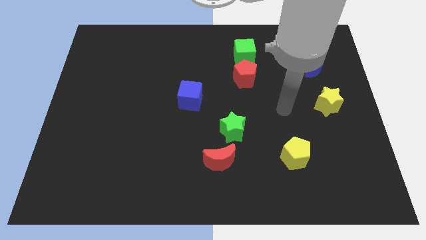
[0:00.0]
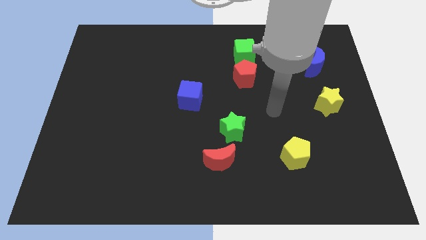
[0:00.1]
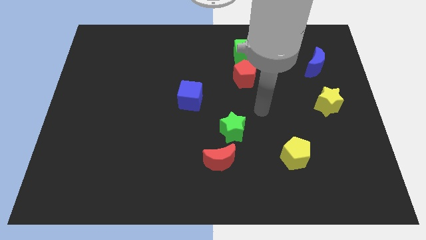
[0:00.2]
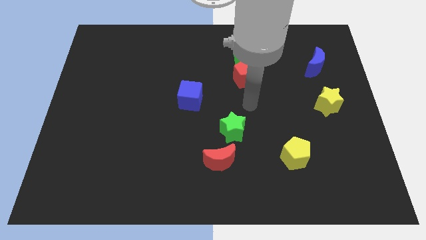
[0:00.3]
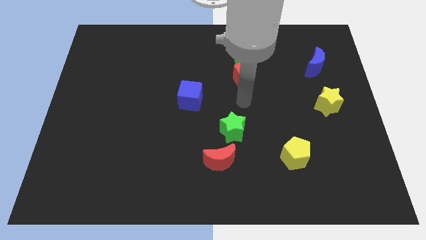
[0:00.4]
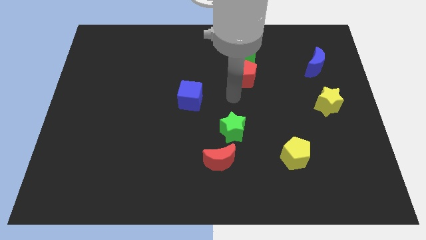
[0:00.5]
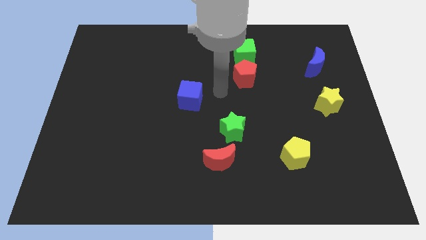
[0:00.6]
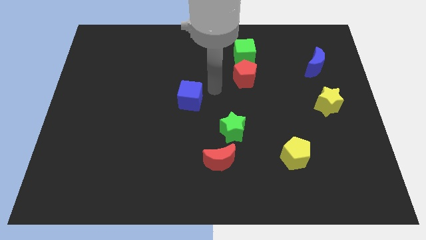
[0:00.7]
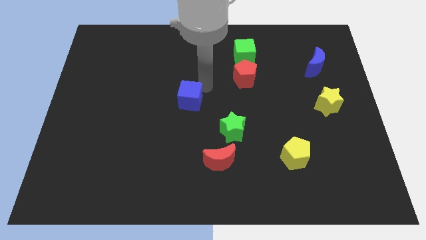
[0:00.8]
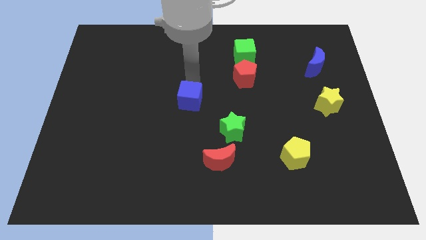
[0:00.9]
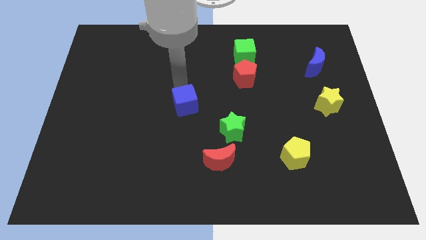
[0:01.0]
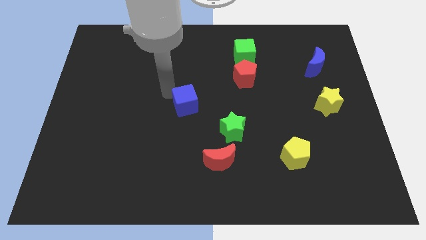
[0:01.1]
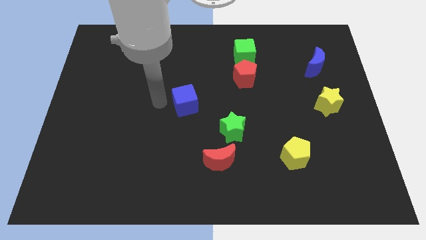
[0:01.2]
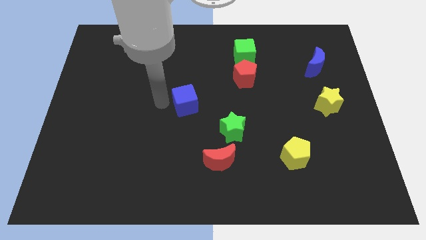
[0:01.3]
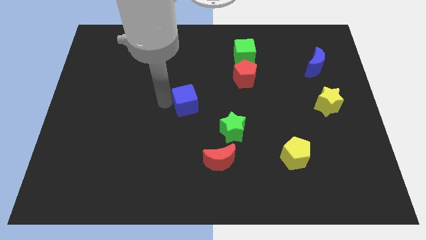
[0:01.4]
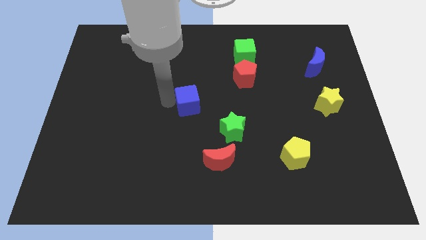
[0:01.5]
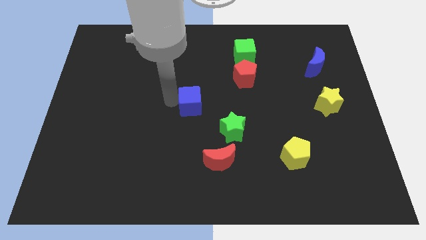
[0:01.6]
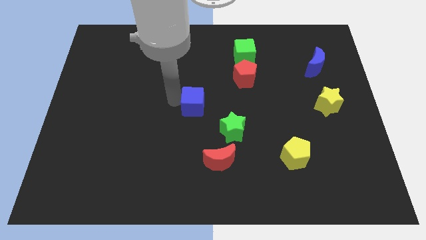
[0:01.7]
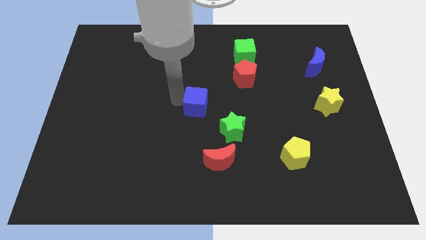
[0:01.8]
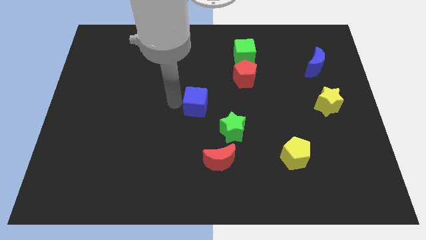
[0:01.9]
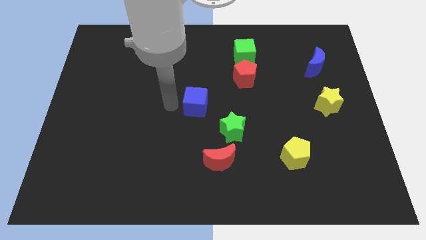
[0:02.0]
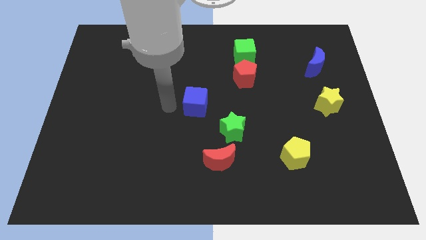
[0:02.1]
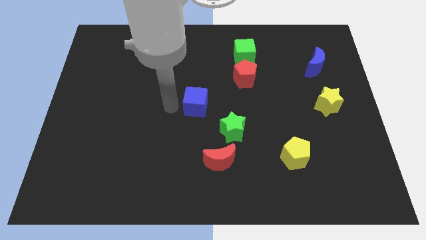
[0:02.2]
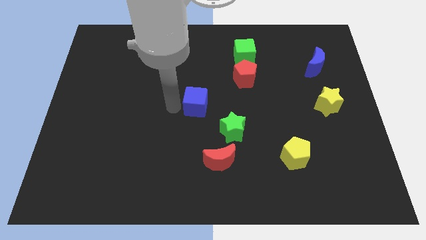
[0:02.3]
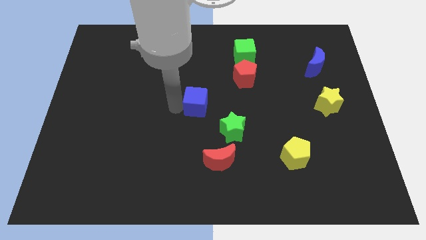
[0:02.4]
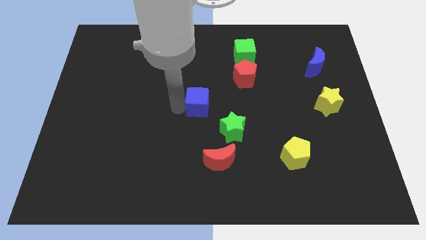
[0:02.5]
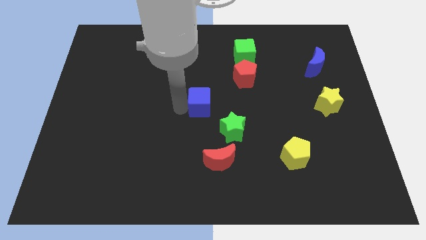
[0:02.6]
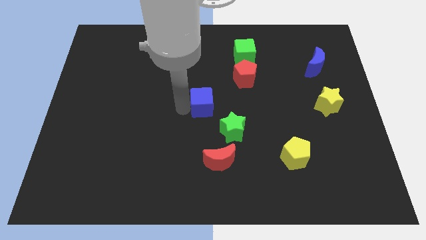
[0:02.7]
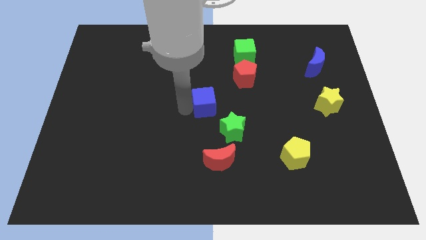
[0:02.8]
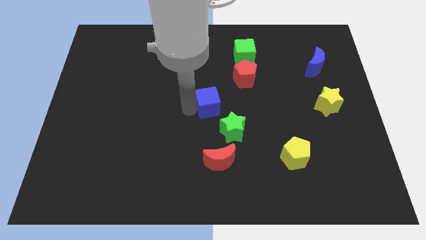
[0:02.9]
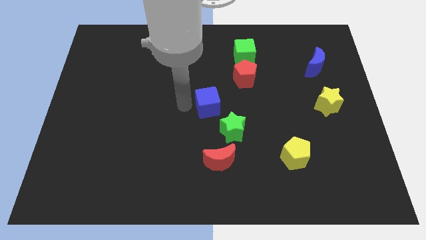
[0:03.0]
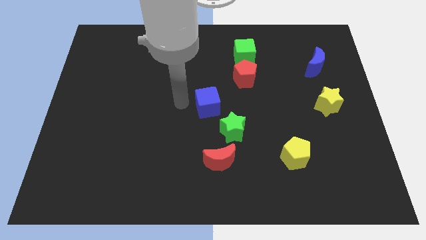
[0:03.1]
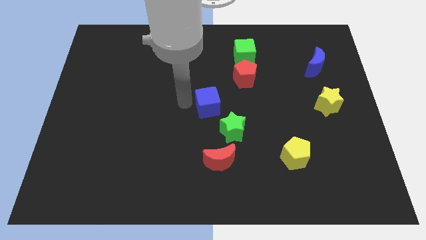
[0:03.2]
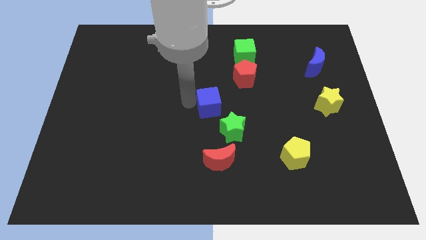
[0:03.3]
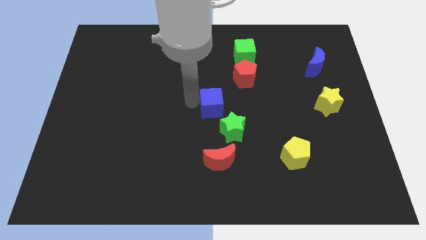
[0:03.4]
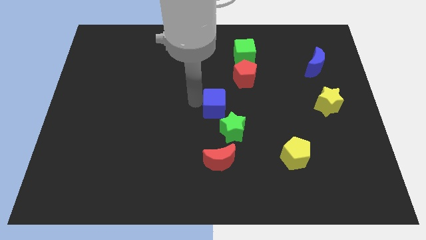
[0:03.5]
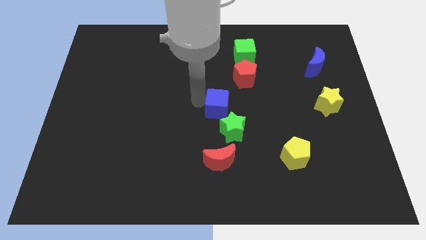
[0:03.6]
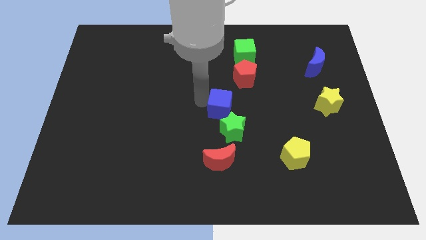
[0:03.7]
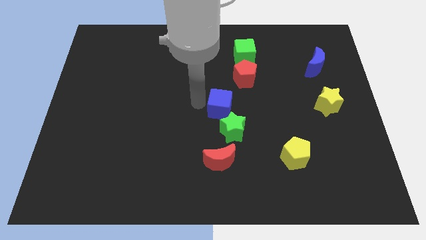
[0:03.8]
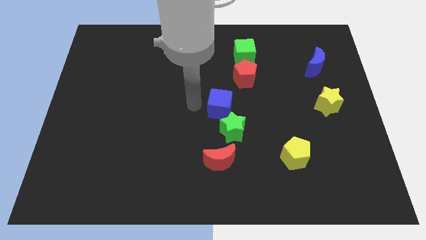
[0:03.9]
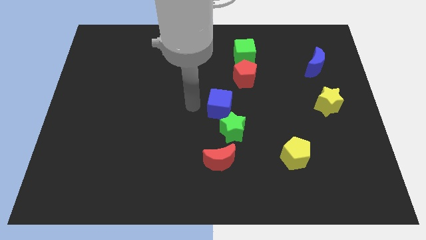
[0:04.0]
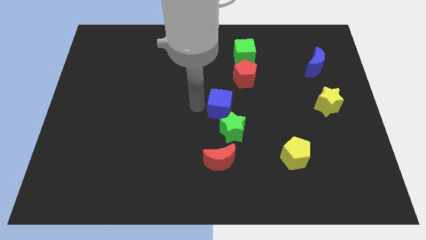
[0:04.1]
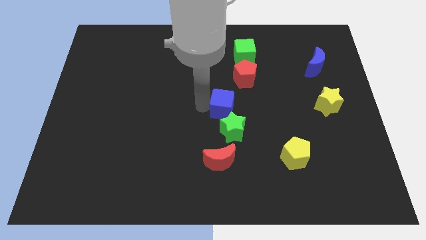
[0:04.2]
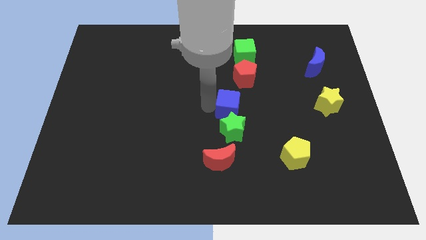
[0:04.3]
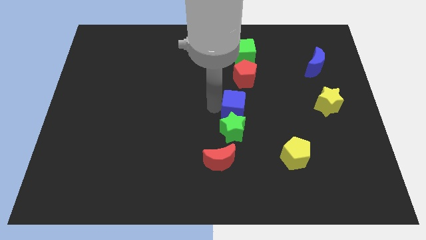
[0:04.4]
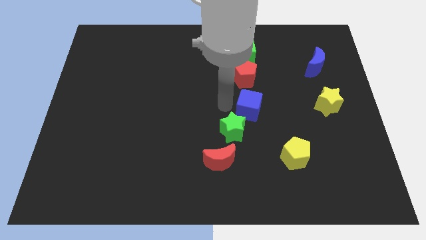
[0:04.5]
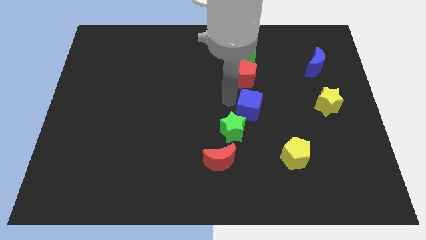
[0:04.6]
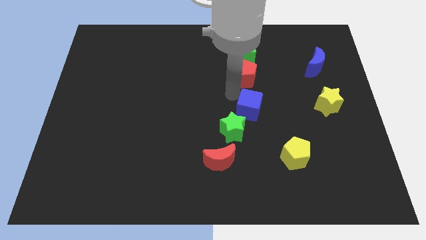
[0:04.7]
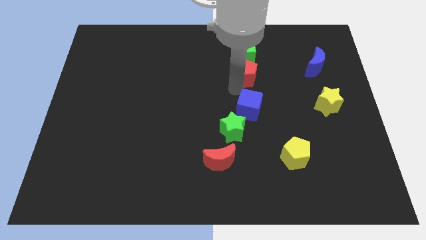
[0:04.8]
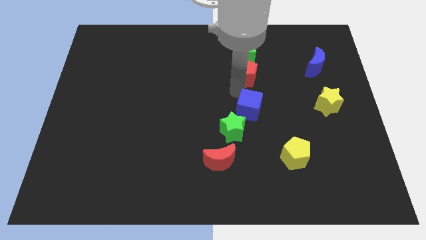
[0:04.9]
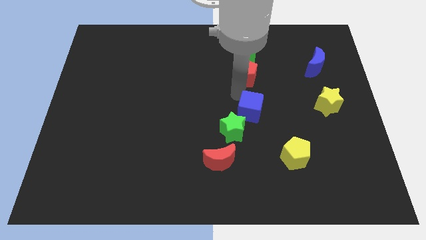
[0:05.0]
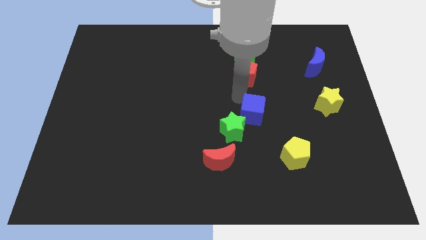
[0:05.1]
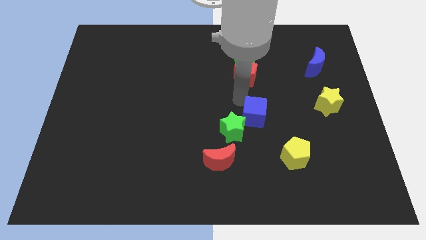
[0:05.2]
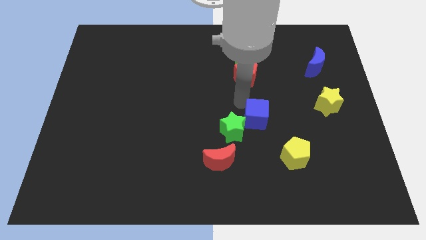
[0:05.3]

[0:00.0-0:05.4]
push the blue cube to the top left side of the yellow pentagon

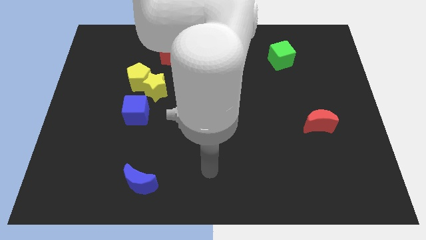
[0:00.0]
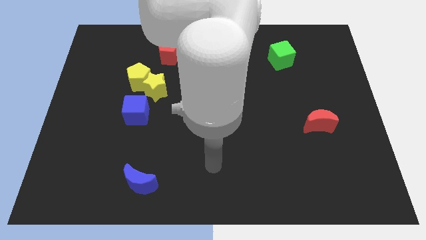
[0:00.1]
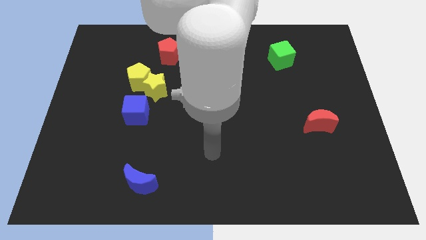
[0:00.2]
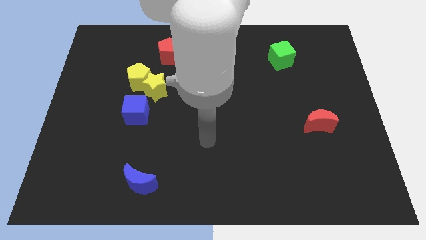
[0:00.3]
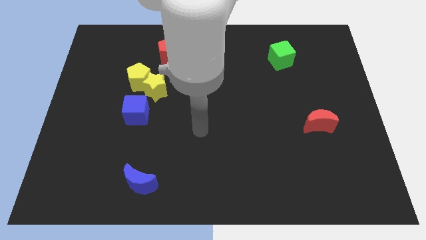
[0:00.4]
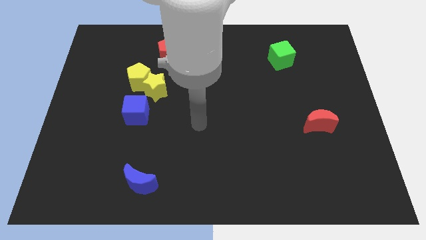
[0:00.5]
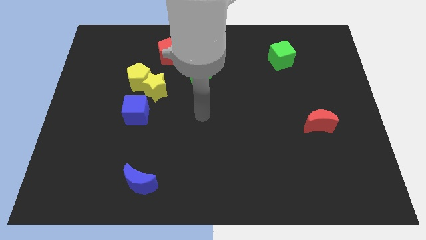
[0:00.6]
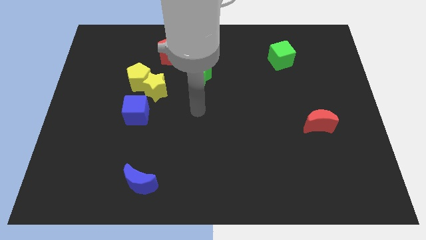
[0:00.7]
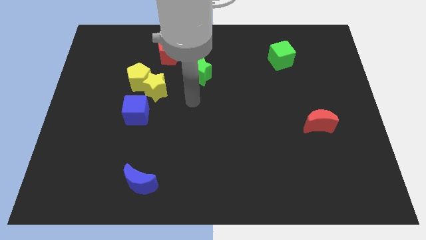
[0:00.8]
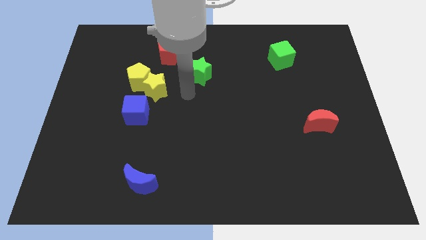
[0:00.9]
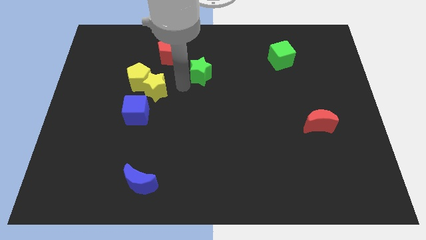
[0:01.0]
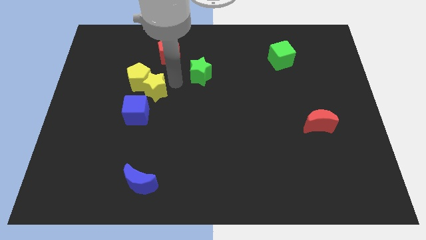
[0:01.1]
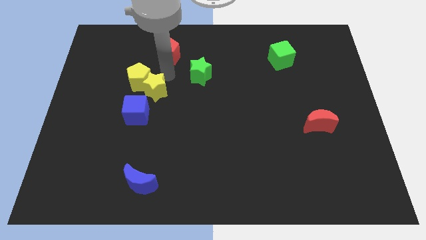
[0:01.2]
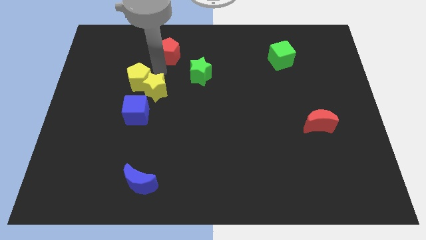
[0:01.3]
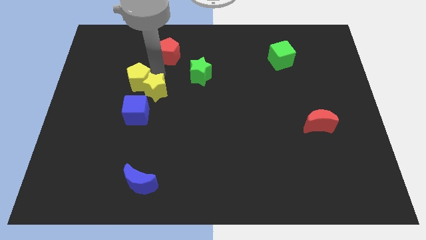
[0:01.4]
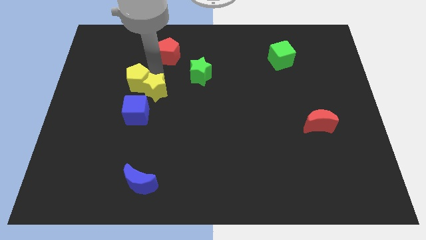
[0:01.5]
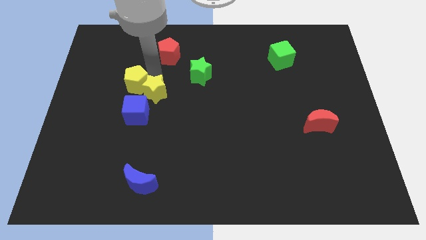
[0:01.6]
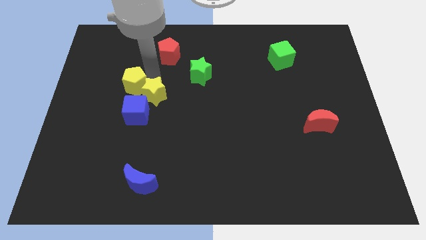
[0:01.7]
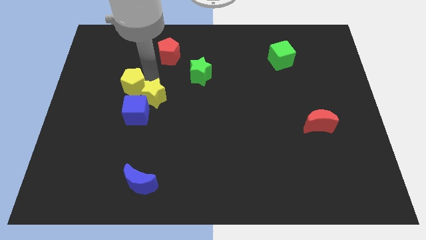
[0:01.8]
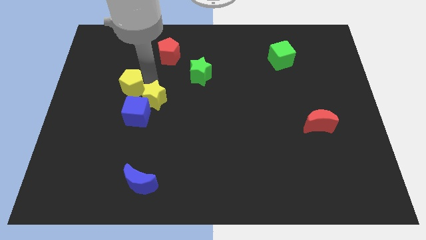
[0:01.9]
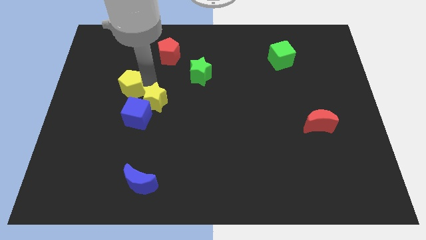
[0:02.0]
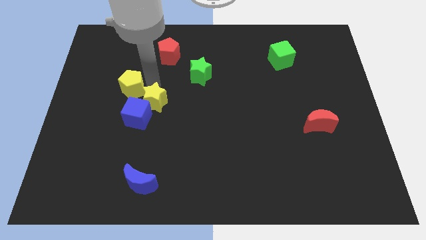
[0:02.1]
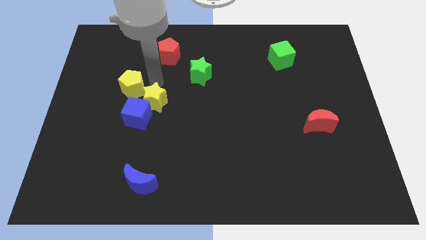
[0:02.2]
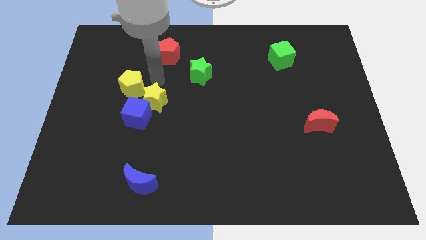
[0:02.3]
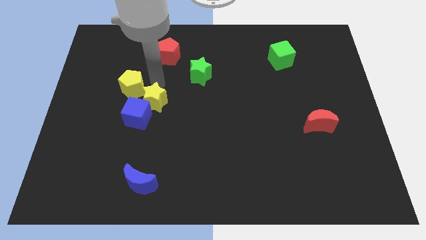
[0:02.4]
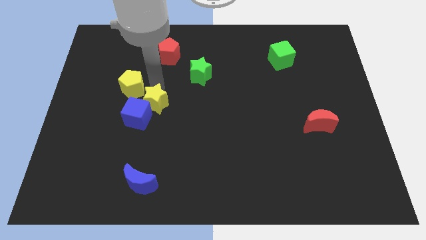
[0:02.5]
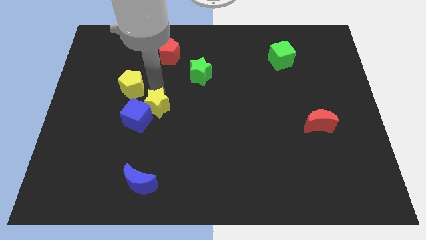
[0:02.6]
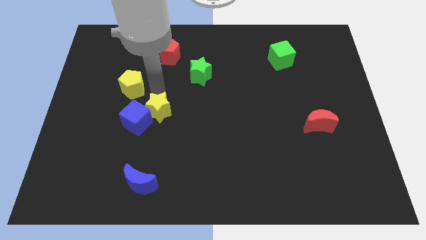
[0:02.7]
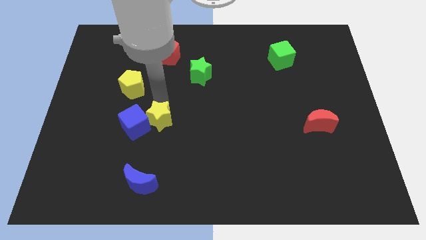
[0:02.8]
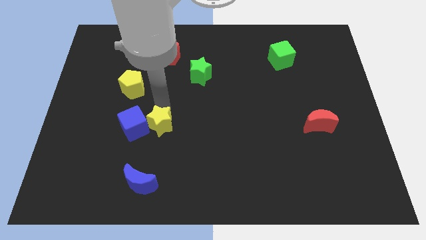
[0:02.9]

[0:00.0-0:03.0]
push the yellow star to the top of the blue moon
